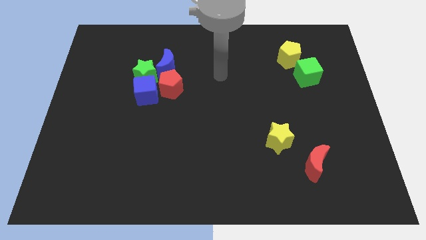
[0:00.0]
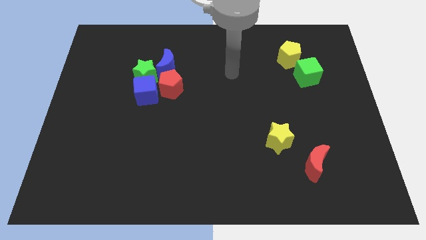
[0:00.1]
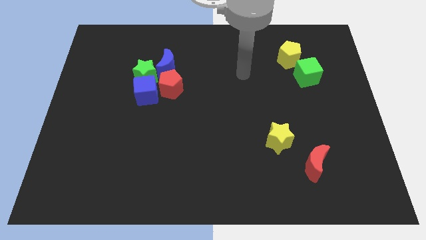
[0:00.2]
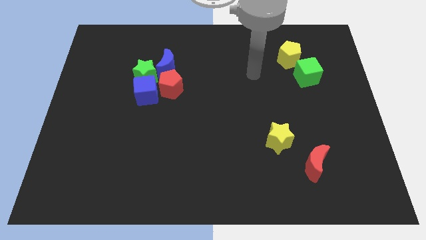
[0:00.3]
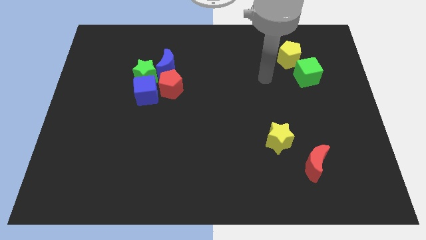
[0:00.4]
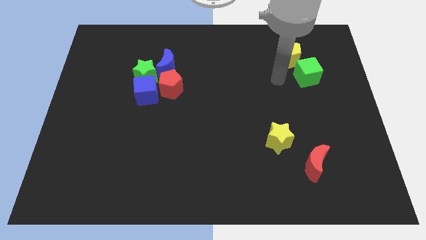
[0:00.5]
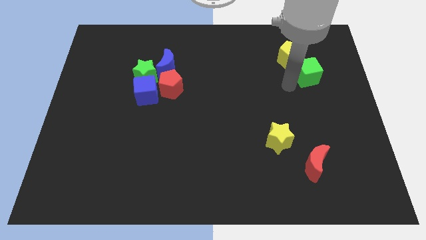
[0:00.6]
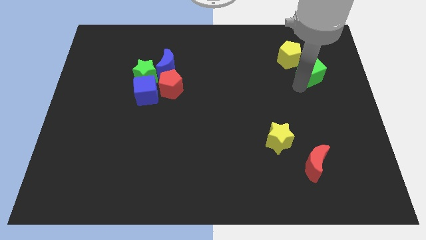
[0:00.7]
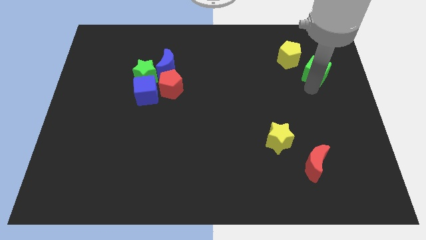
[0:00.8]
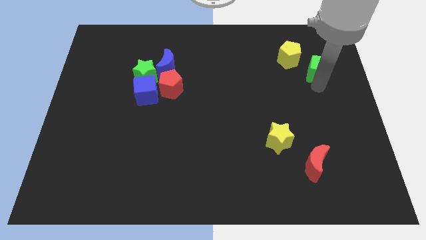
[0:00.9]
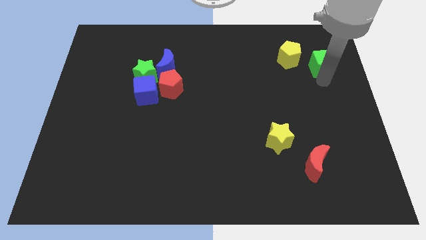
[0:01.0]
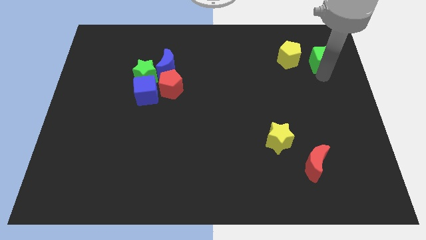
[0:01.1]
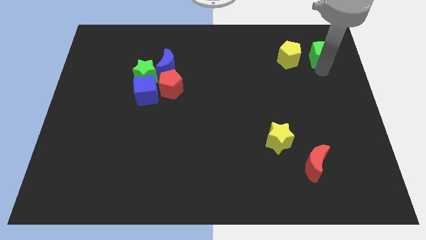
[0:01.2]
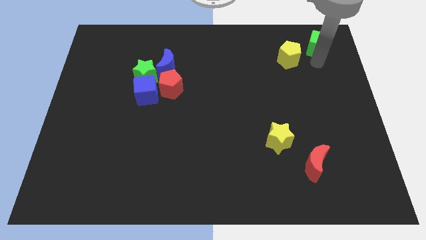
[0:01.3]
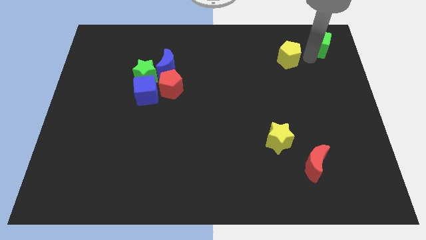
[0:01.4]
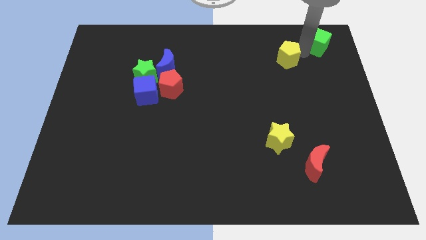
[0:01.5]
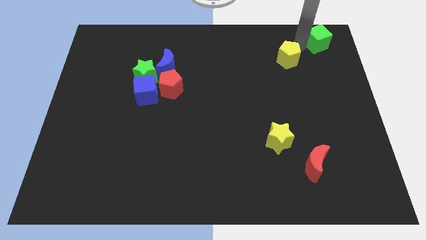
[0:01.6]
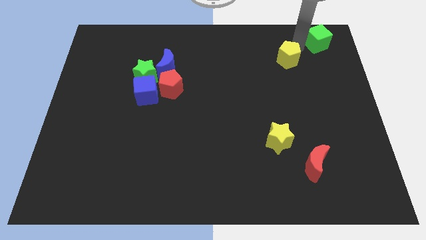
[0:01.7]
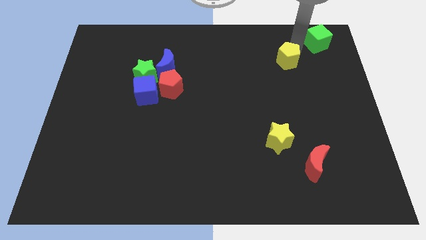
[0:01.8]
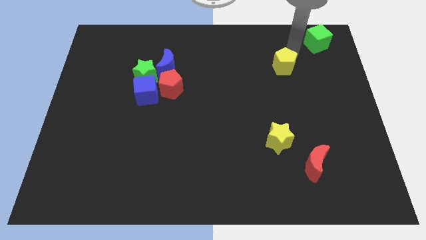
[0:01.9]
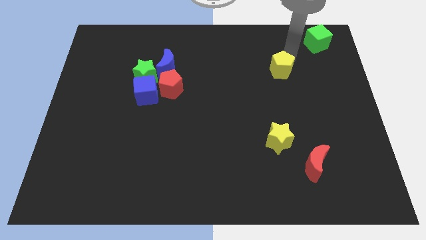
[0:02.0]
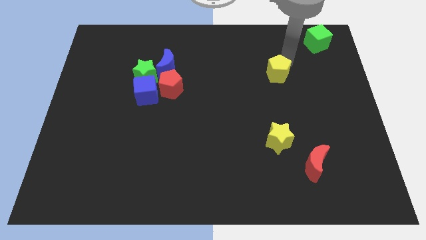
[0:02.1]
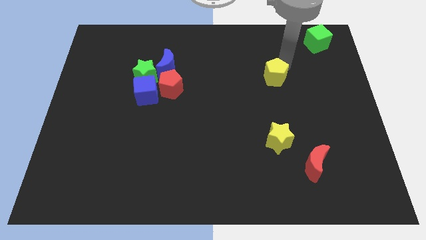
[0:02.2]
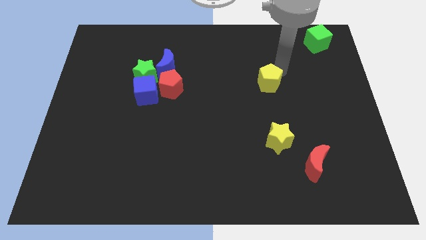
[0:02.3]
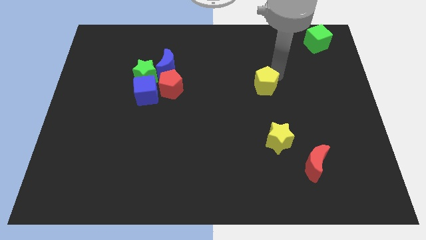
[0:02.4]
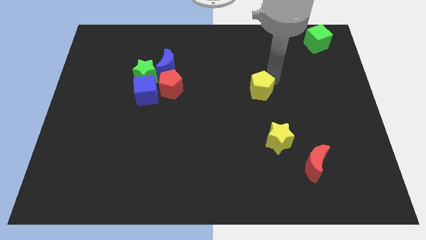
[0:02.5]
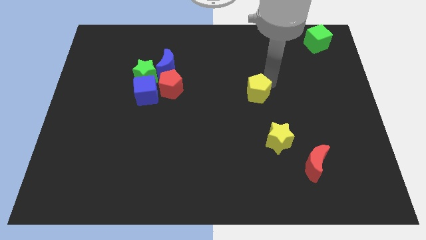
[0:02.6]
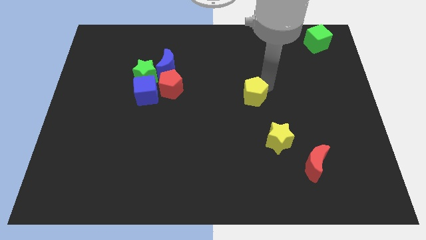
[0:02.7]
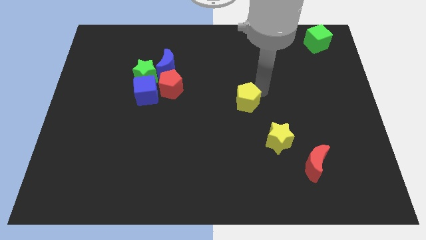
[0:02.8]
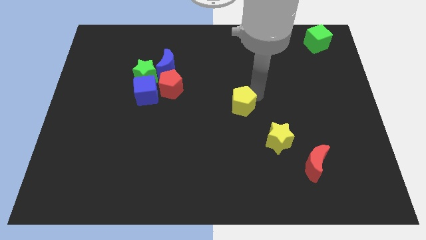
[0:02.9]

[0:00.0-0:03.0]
move the yellow pentagon diagonally downwards and left

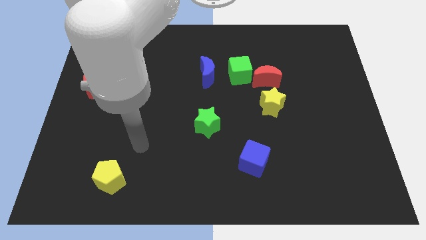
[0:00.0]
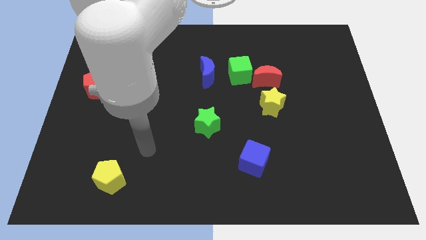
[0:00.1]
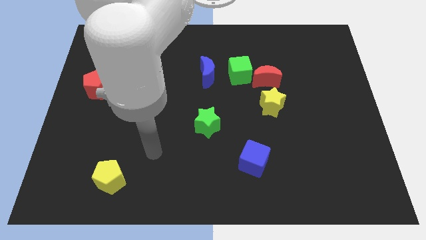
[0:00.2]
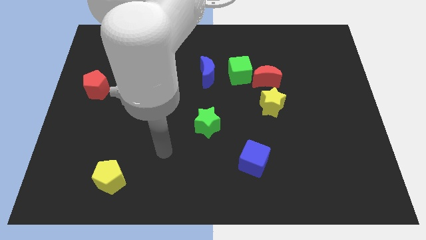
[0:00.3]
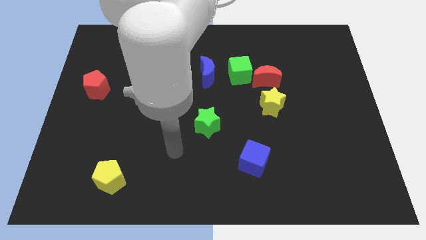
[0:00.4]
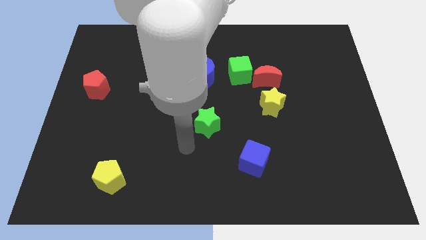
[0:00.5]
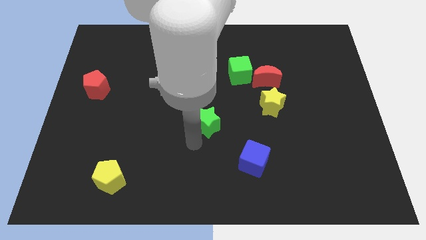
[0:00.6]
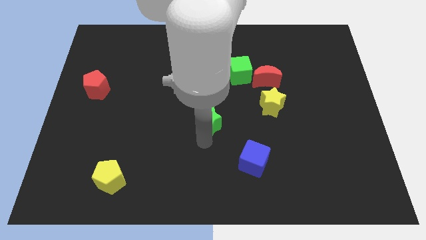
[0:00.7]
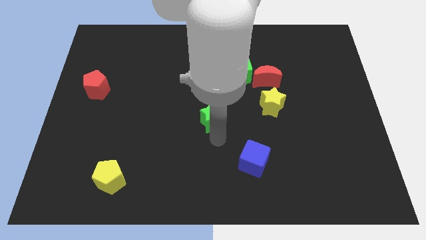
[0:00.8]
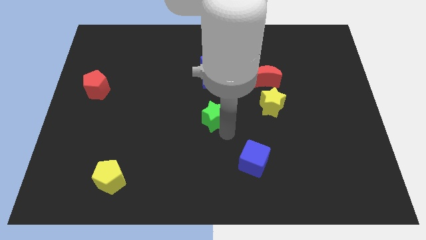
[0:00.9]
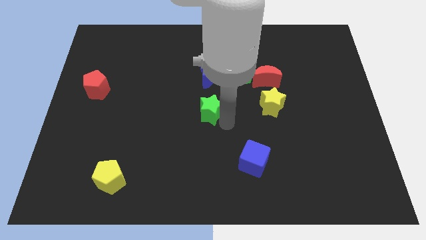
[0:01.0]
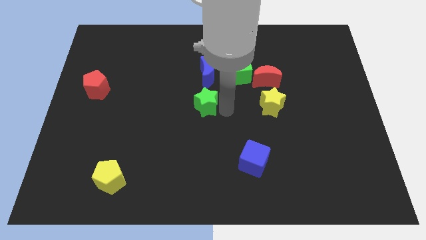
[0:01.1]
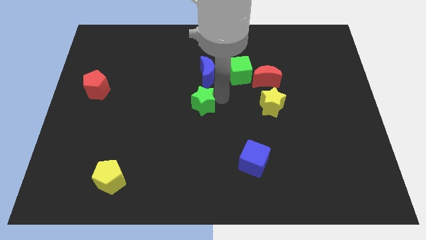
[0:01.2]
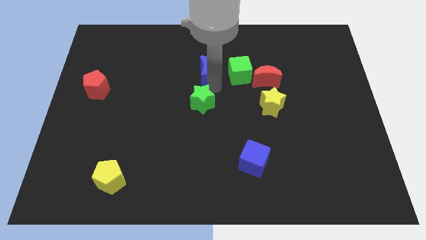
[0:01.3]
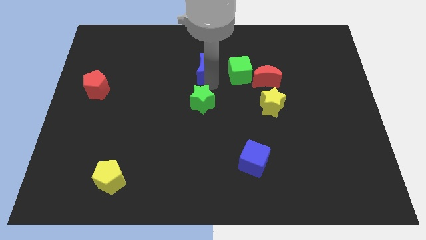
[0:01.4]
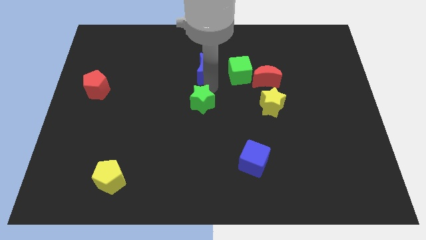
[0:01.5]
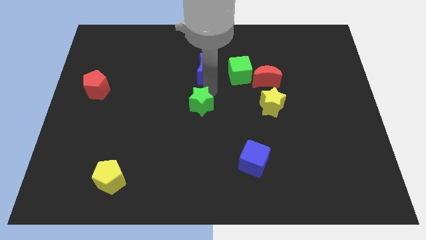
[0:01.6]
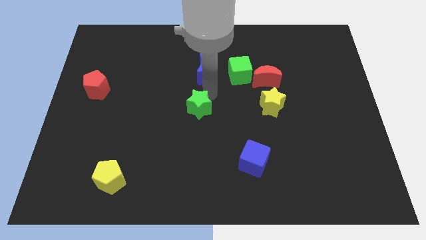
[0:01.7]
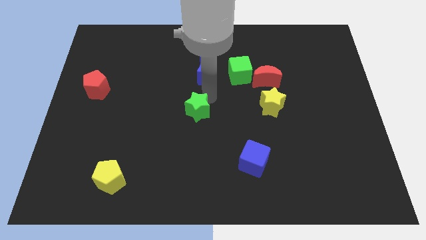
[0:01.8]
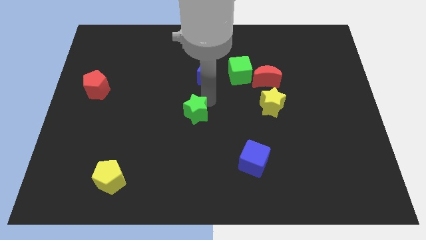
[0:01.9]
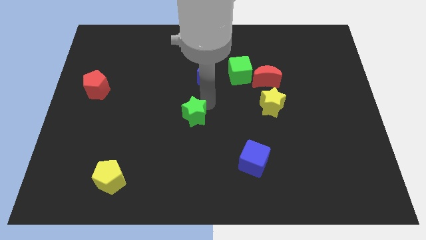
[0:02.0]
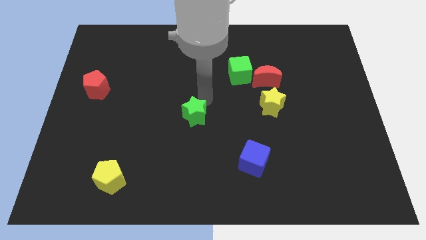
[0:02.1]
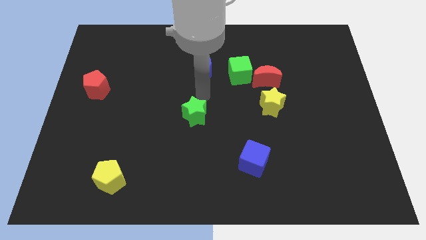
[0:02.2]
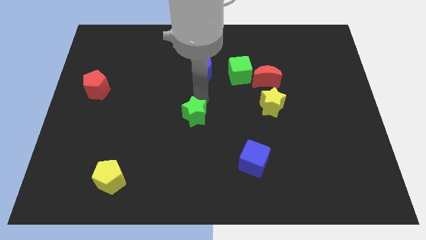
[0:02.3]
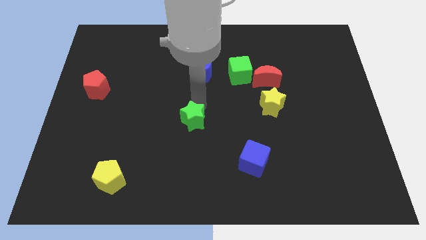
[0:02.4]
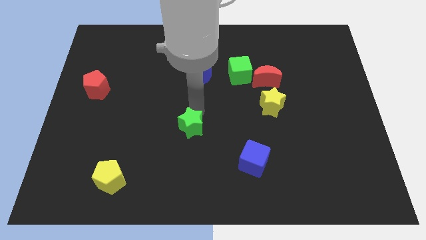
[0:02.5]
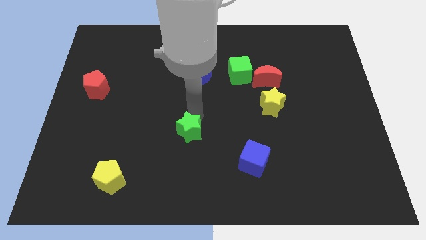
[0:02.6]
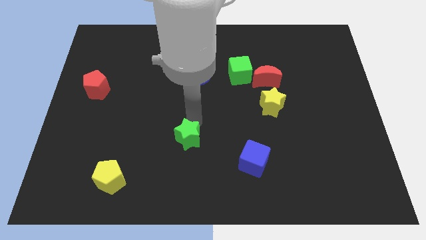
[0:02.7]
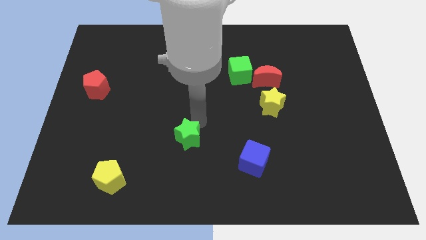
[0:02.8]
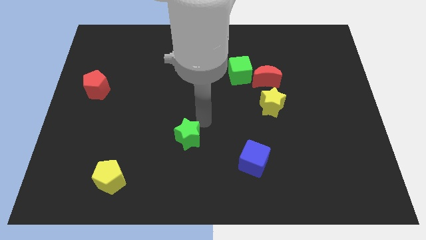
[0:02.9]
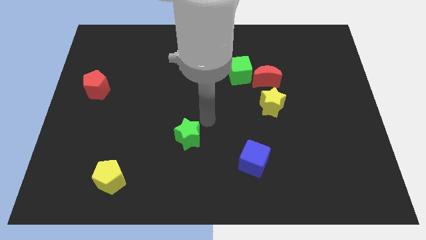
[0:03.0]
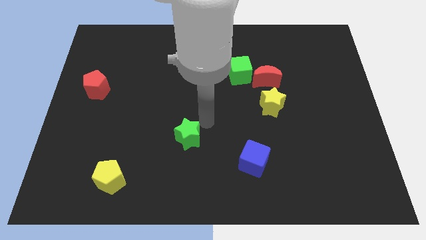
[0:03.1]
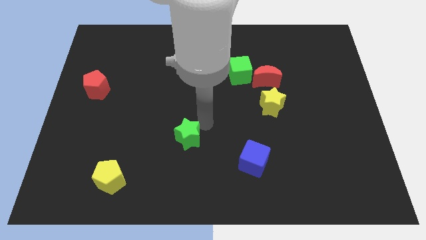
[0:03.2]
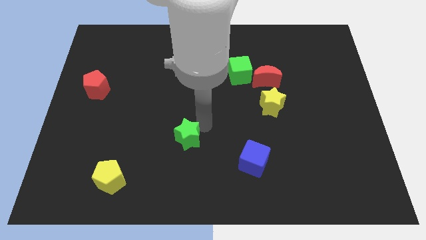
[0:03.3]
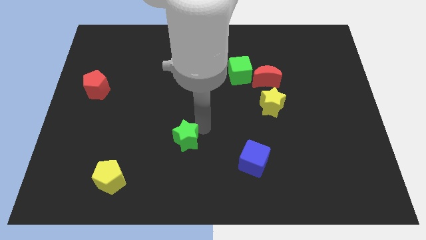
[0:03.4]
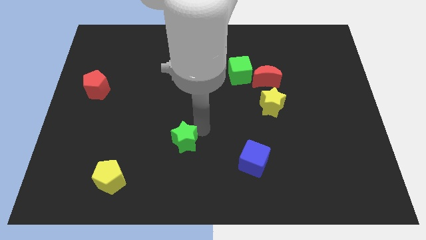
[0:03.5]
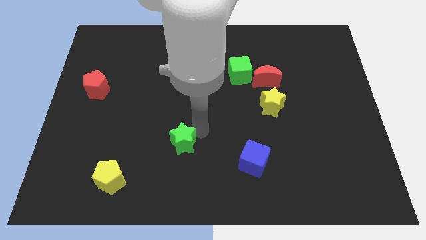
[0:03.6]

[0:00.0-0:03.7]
push the green star down and then left a bit

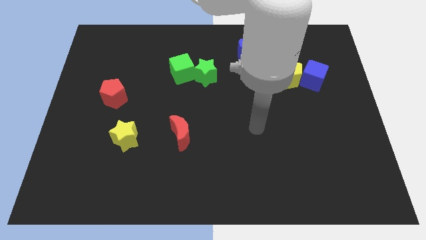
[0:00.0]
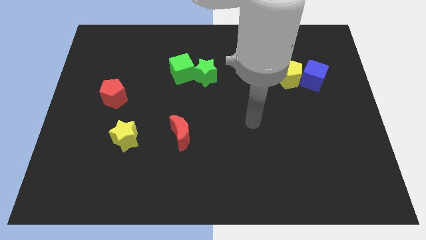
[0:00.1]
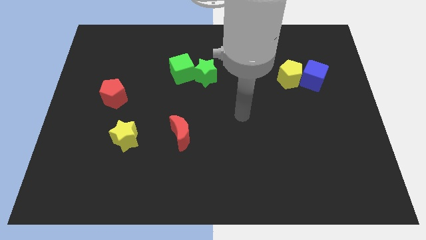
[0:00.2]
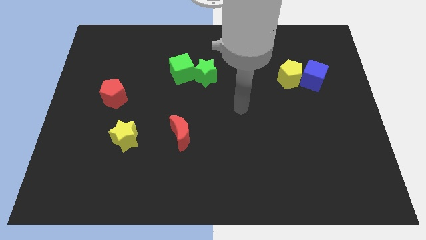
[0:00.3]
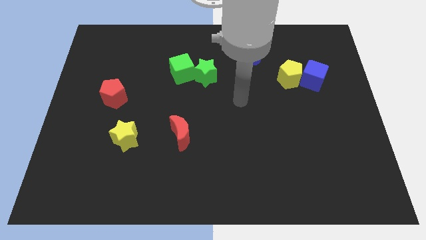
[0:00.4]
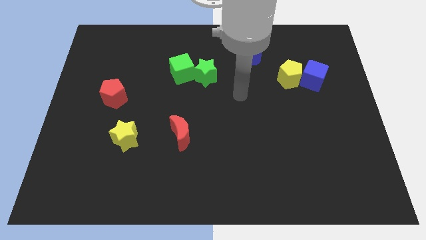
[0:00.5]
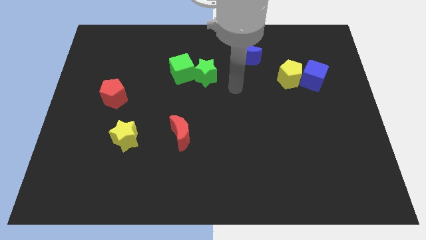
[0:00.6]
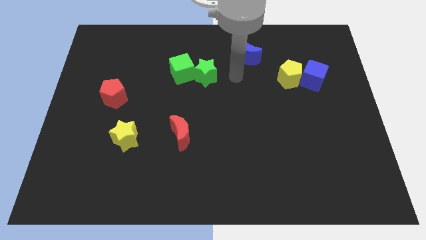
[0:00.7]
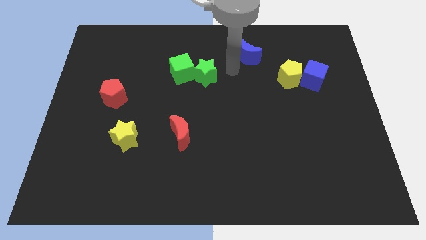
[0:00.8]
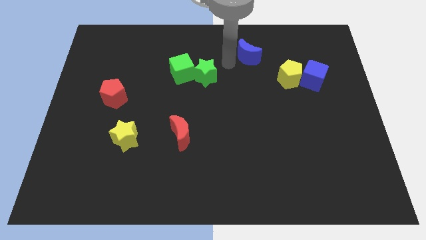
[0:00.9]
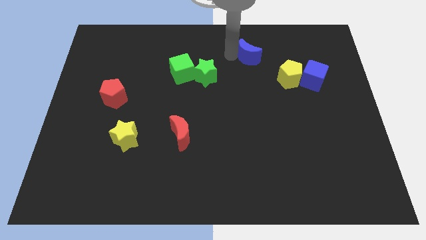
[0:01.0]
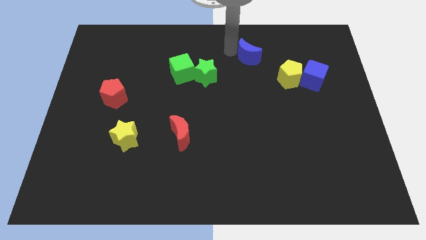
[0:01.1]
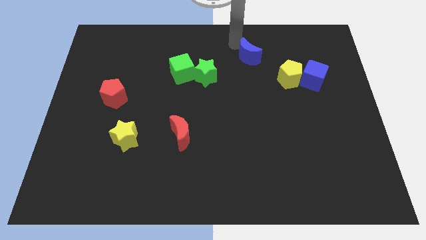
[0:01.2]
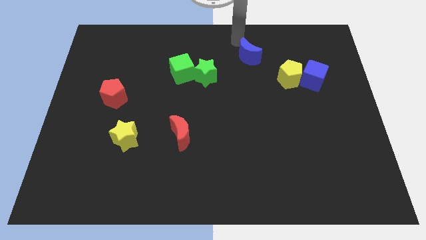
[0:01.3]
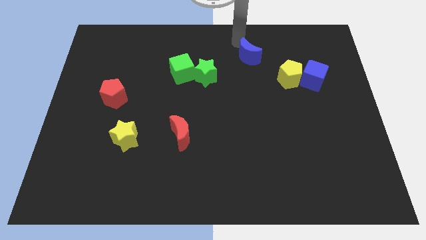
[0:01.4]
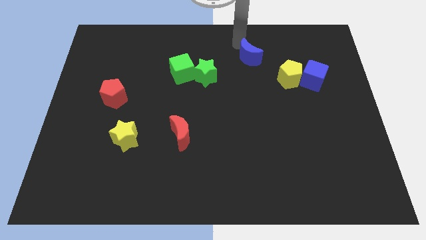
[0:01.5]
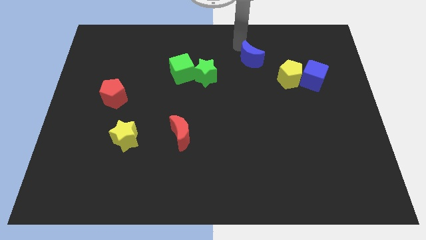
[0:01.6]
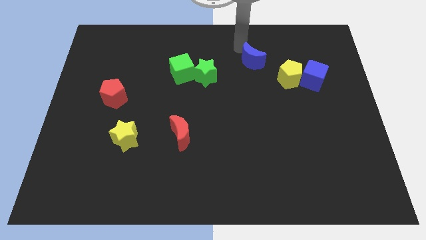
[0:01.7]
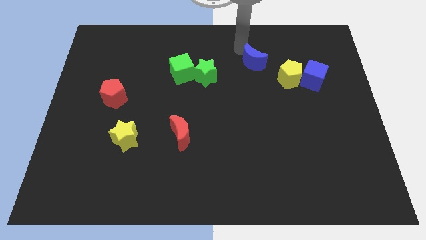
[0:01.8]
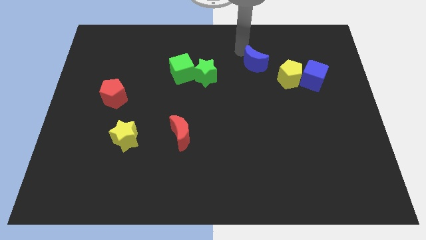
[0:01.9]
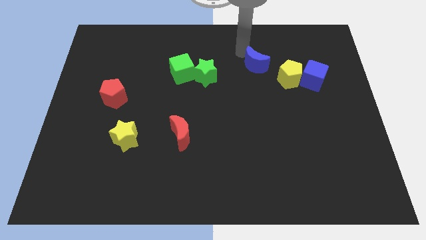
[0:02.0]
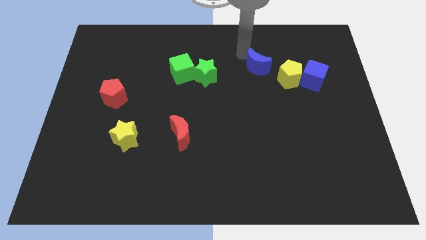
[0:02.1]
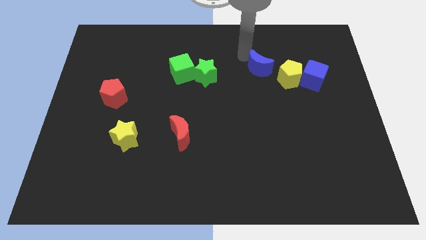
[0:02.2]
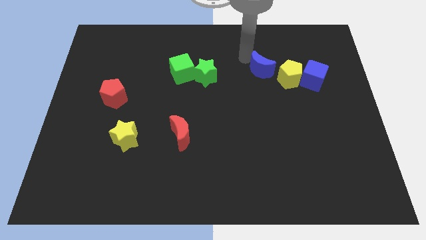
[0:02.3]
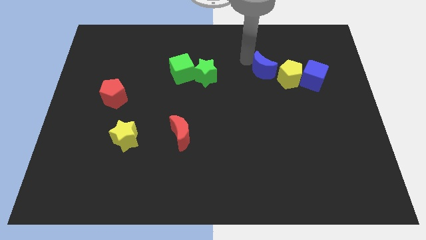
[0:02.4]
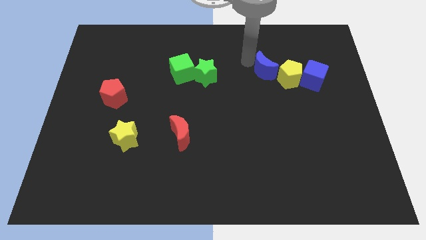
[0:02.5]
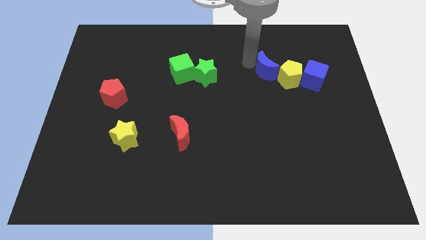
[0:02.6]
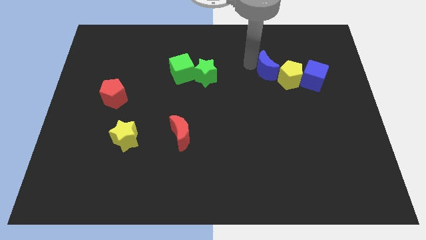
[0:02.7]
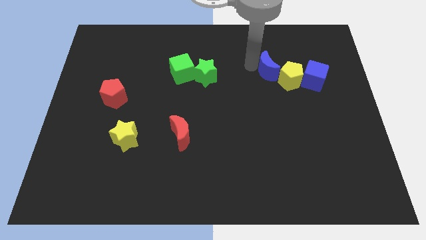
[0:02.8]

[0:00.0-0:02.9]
slightly move the blue moon diagonally downwards and to the right
